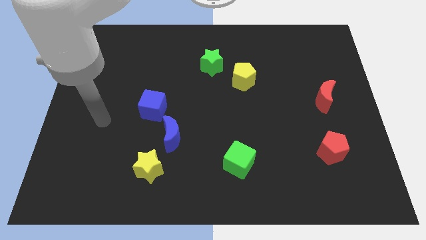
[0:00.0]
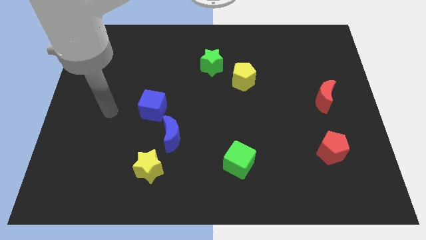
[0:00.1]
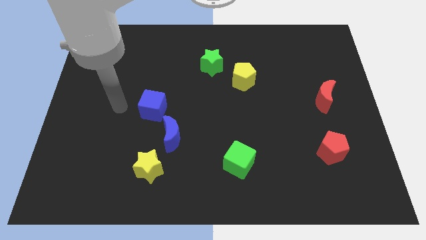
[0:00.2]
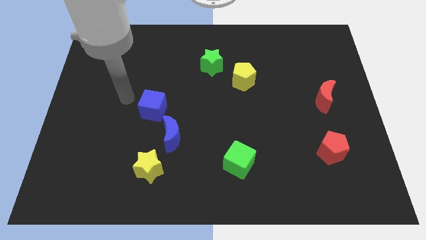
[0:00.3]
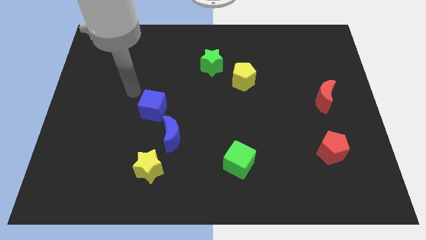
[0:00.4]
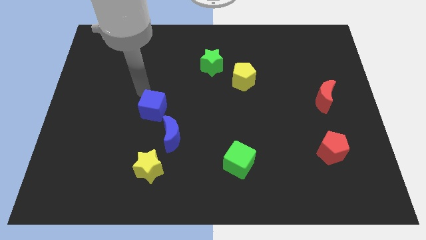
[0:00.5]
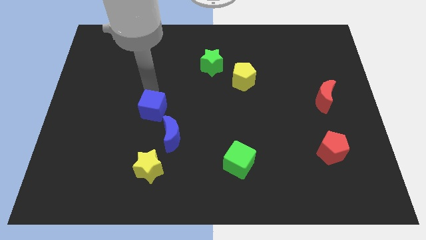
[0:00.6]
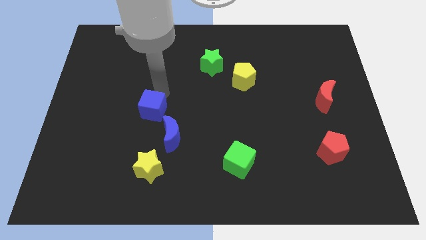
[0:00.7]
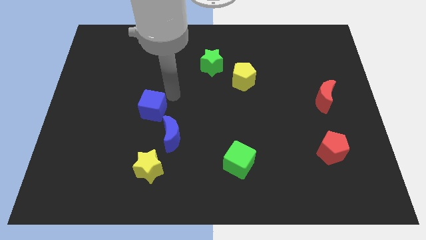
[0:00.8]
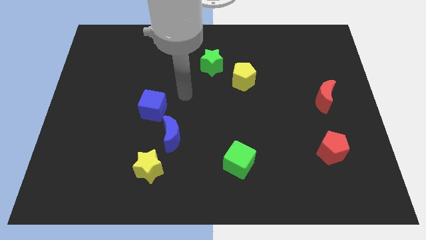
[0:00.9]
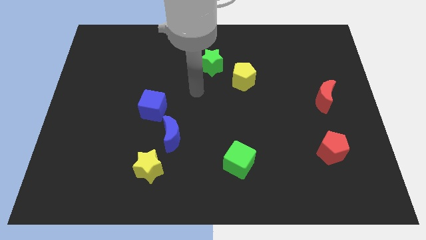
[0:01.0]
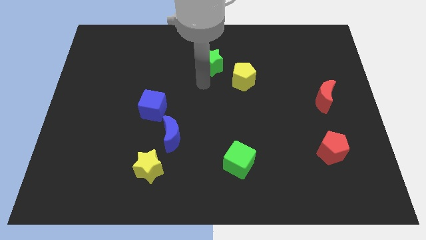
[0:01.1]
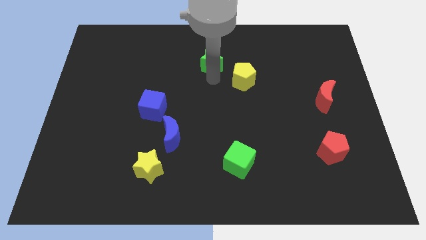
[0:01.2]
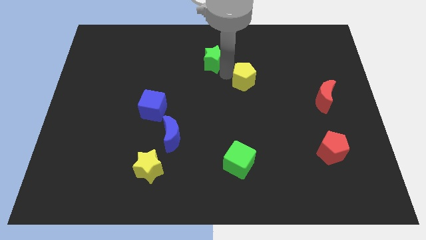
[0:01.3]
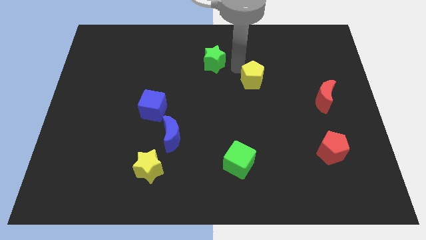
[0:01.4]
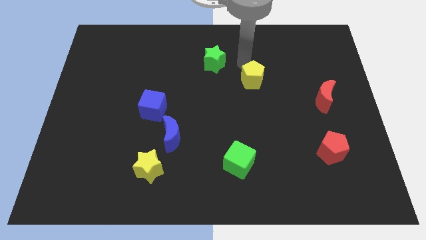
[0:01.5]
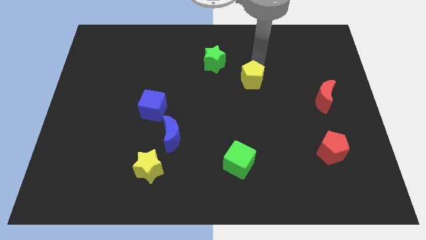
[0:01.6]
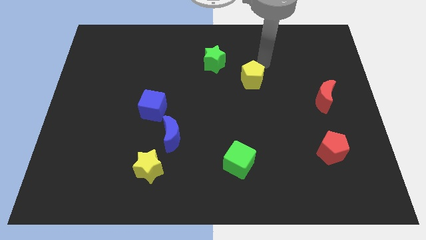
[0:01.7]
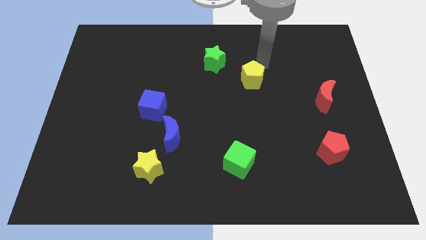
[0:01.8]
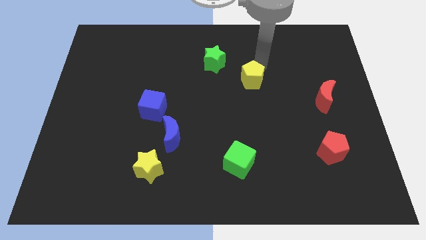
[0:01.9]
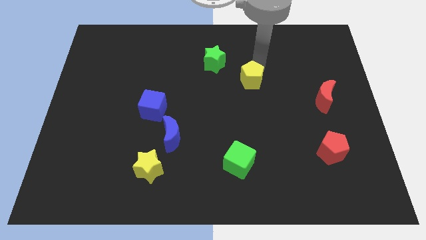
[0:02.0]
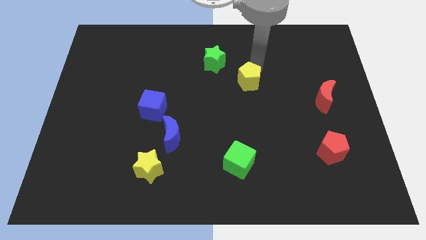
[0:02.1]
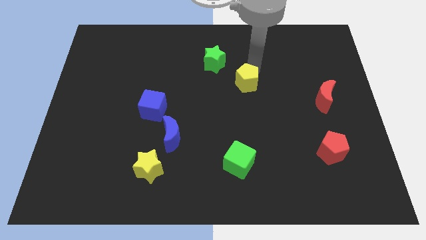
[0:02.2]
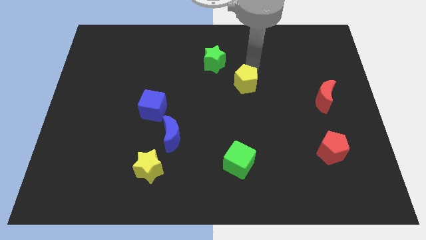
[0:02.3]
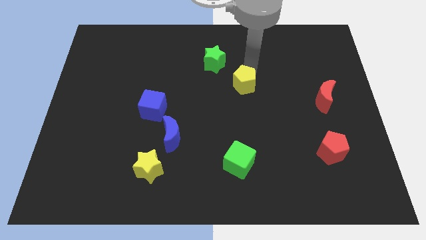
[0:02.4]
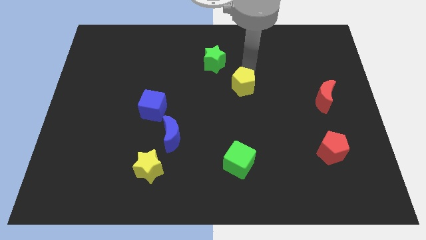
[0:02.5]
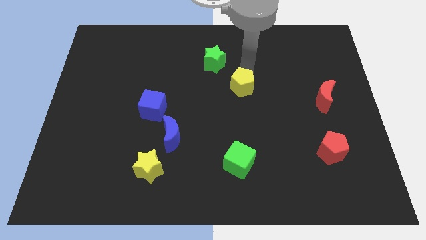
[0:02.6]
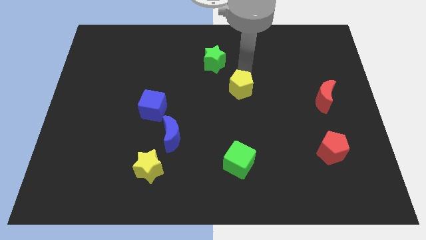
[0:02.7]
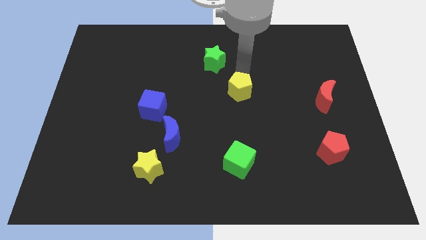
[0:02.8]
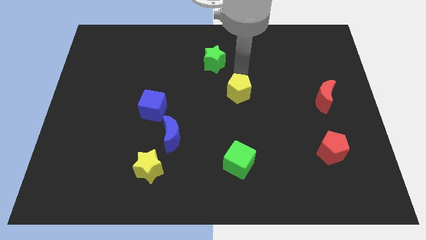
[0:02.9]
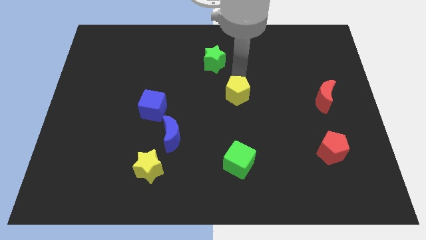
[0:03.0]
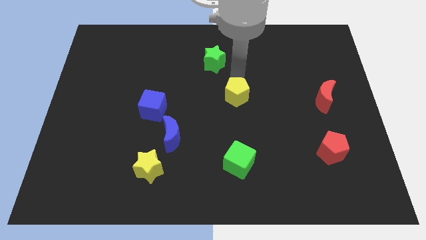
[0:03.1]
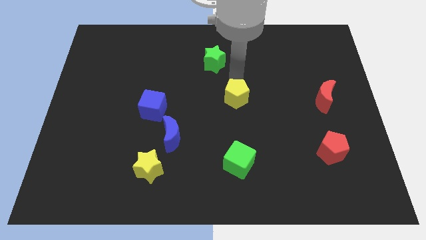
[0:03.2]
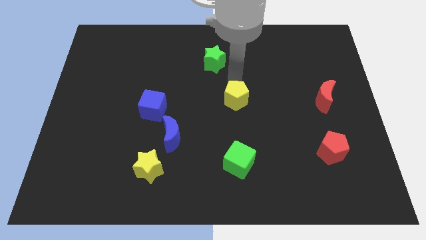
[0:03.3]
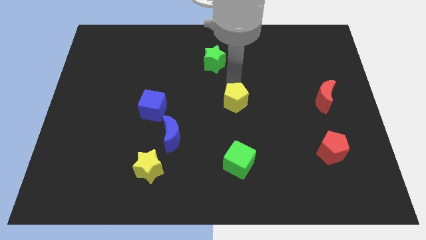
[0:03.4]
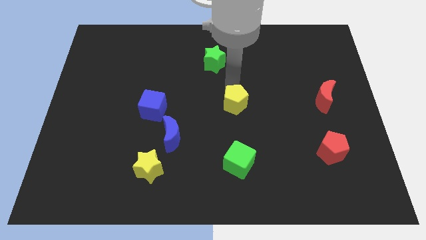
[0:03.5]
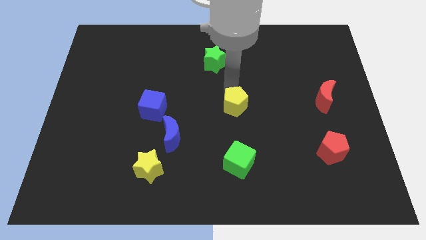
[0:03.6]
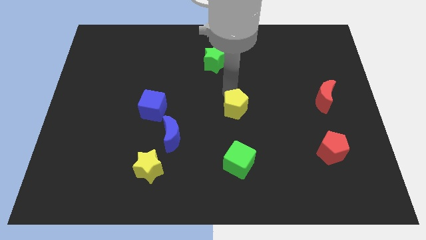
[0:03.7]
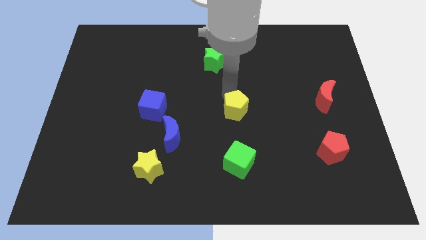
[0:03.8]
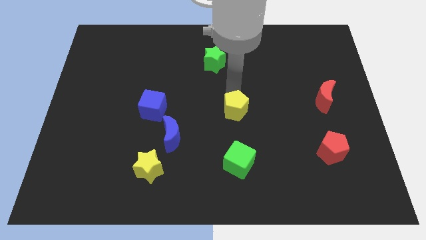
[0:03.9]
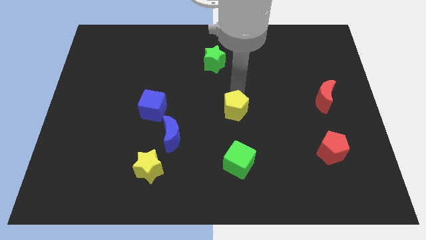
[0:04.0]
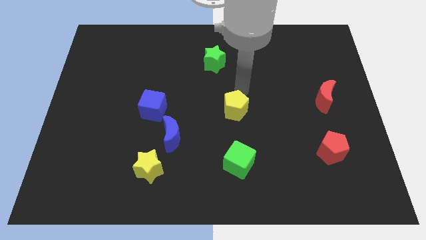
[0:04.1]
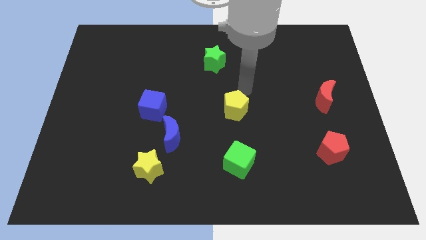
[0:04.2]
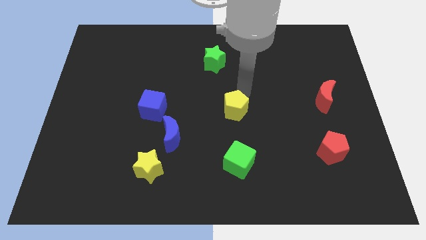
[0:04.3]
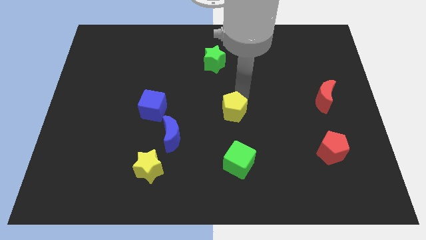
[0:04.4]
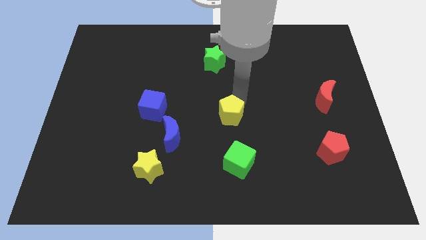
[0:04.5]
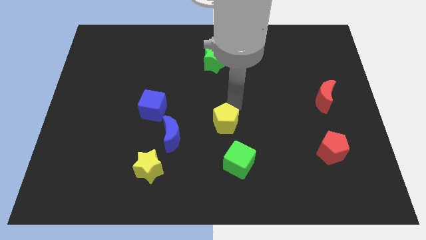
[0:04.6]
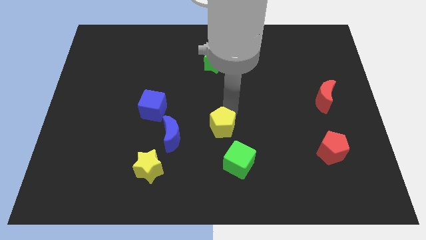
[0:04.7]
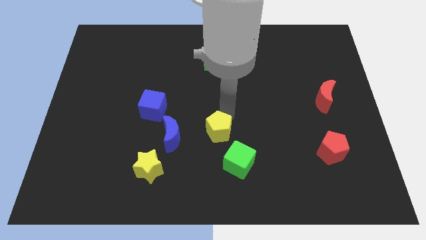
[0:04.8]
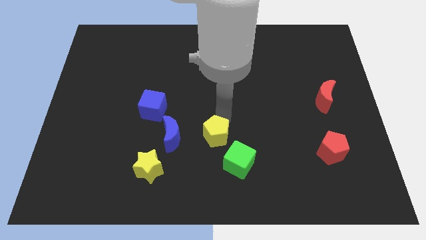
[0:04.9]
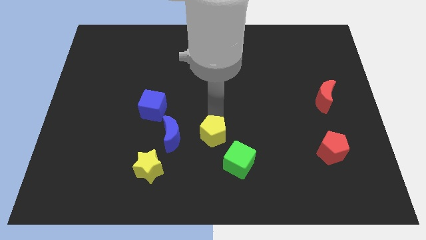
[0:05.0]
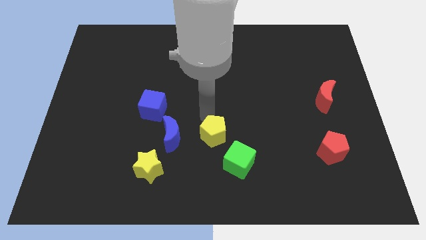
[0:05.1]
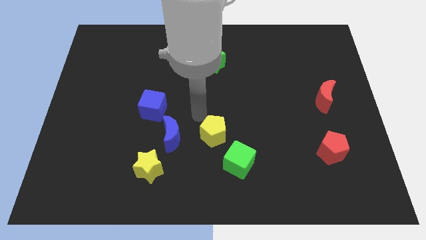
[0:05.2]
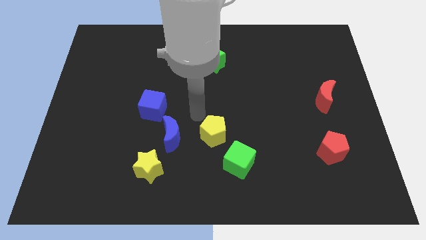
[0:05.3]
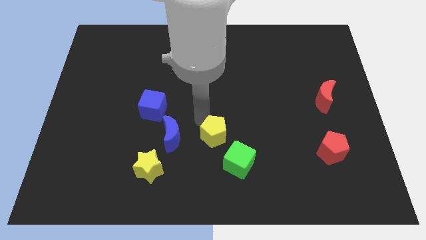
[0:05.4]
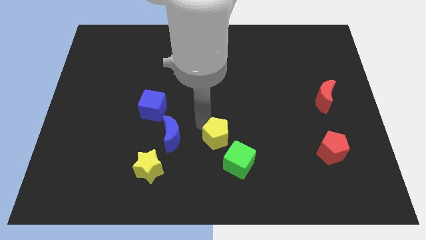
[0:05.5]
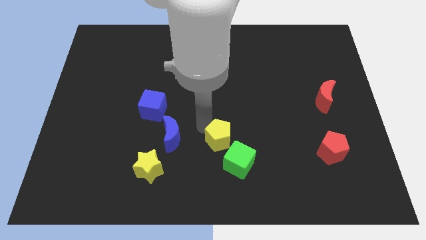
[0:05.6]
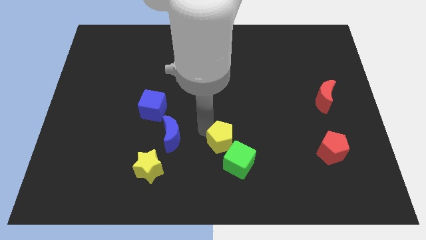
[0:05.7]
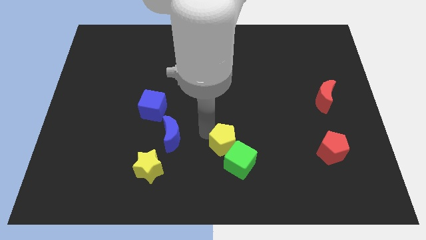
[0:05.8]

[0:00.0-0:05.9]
push the yellow pentagon towards the green cube
